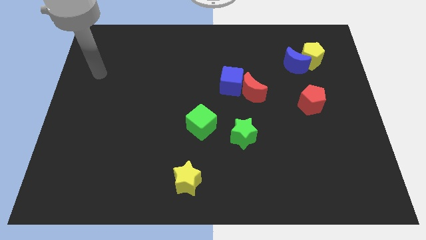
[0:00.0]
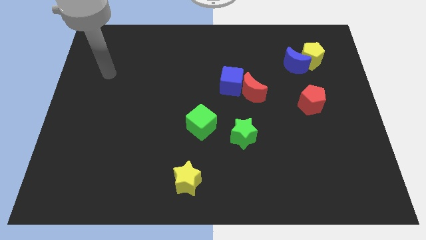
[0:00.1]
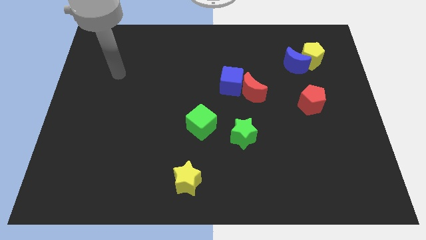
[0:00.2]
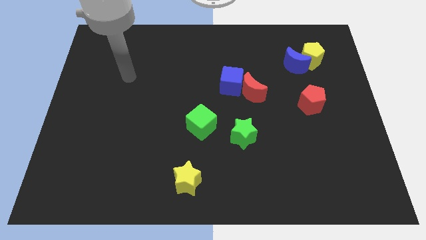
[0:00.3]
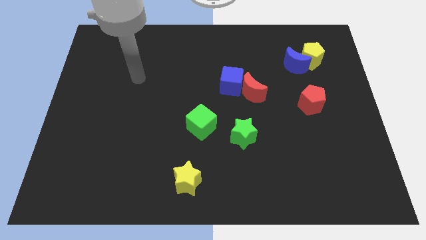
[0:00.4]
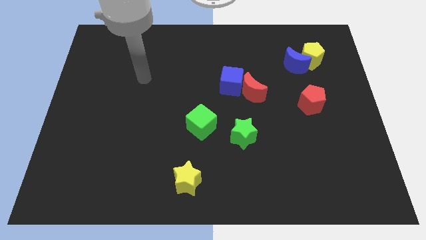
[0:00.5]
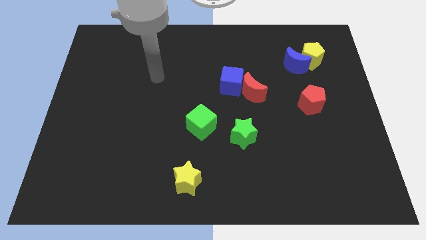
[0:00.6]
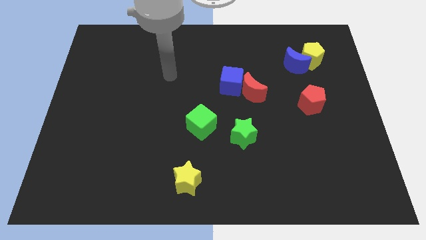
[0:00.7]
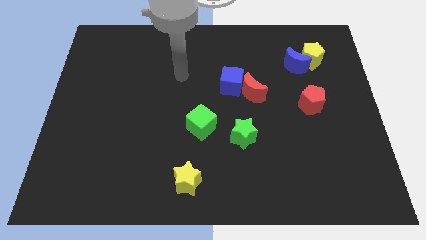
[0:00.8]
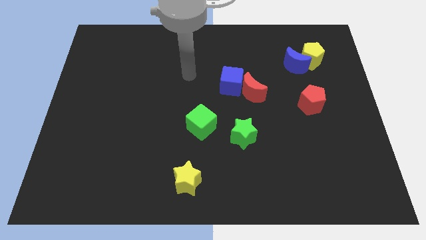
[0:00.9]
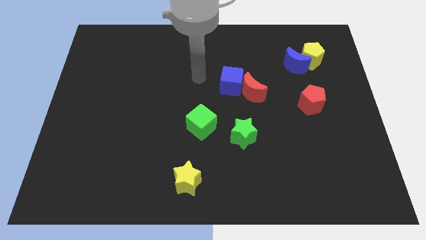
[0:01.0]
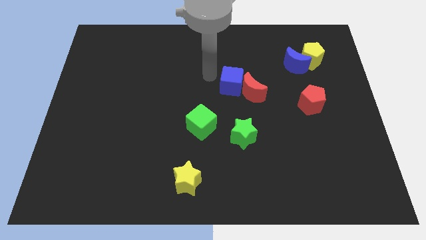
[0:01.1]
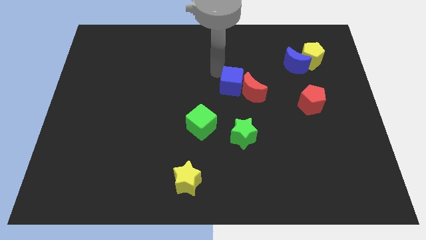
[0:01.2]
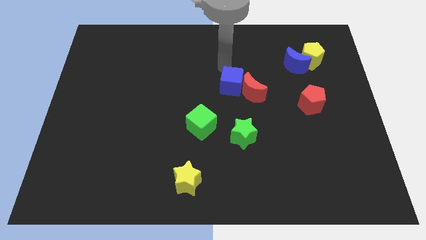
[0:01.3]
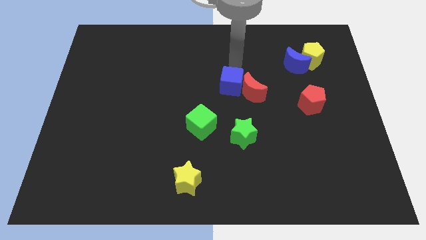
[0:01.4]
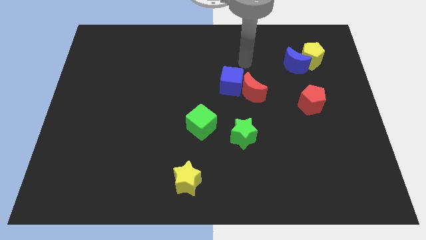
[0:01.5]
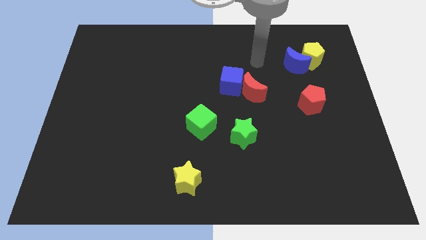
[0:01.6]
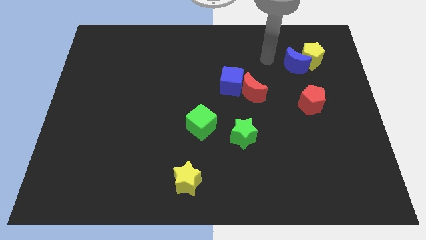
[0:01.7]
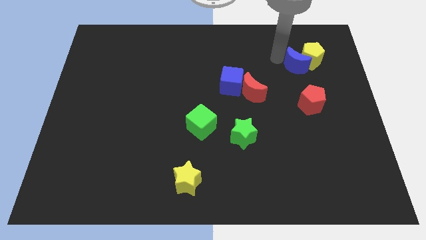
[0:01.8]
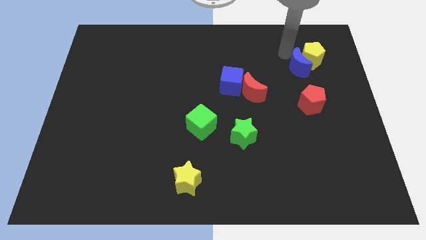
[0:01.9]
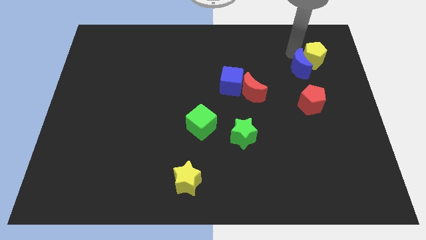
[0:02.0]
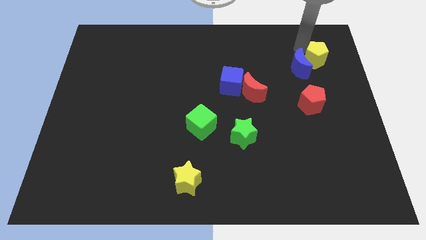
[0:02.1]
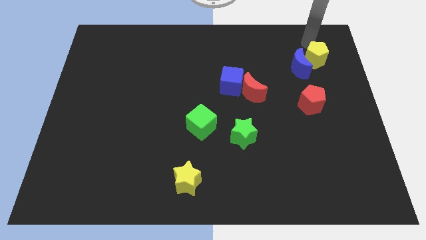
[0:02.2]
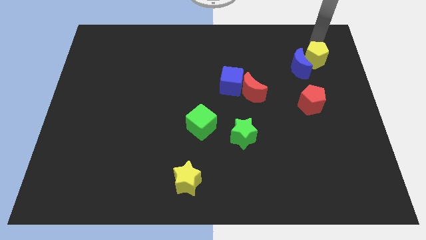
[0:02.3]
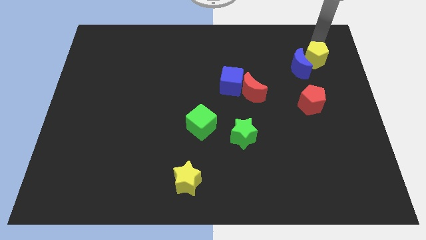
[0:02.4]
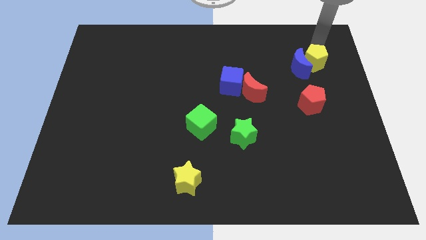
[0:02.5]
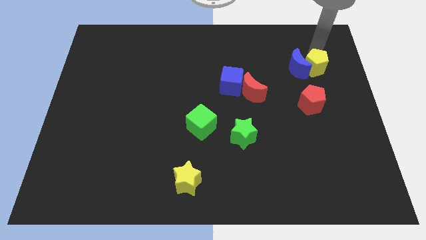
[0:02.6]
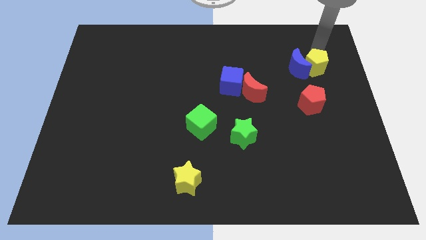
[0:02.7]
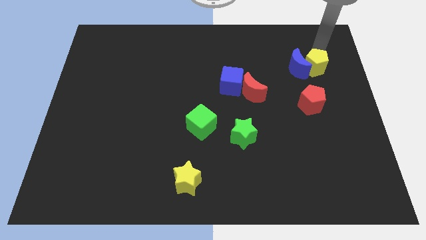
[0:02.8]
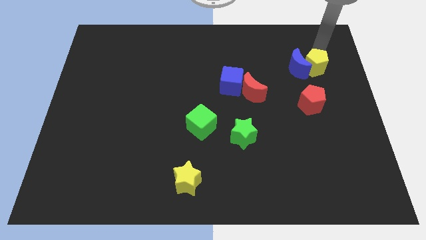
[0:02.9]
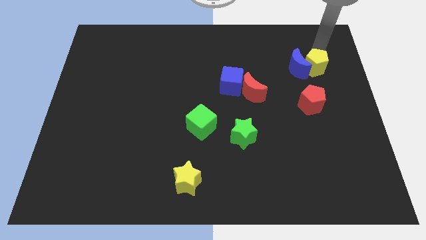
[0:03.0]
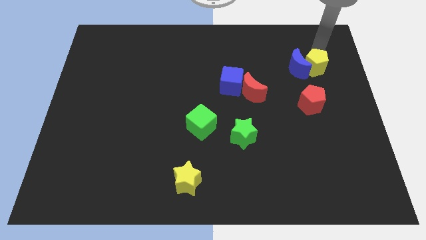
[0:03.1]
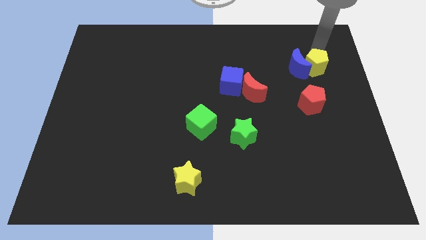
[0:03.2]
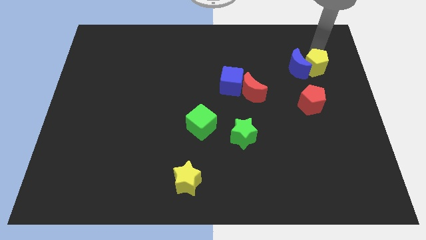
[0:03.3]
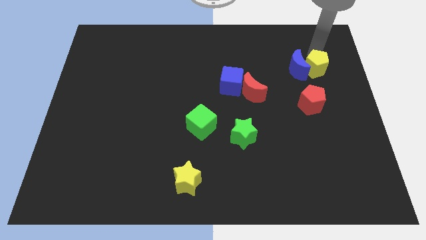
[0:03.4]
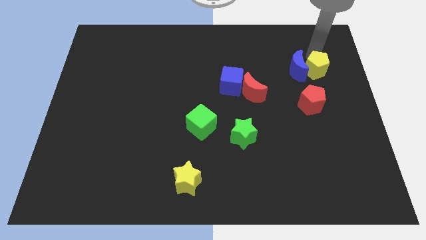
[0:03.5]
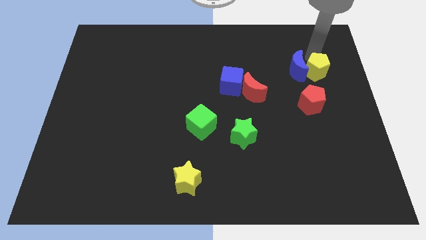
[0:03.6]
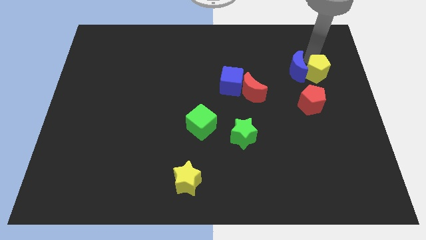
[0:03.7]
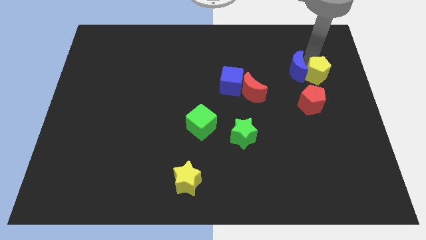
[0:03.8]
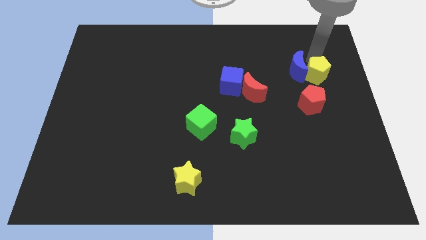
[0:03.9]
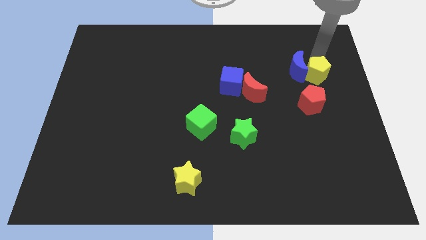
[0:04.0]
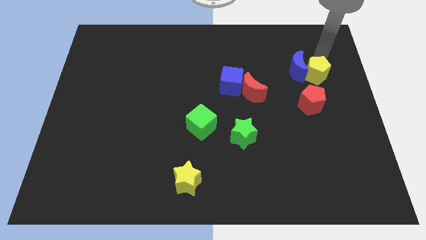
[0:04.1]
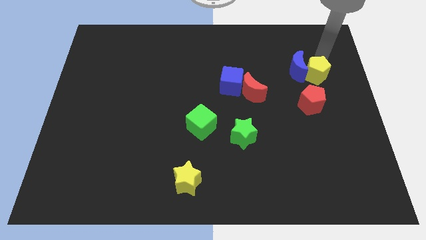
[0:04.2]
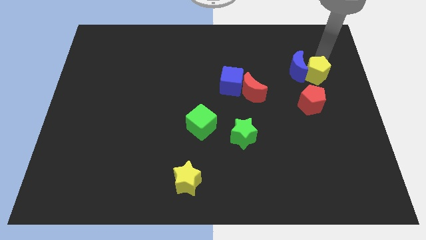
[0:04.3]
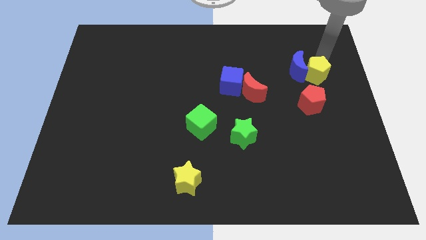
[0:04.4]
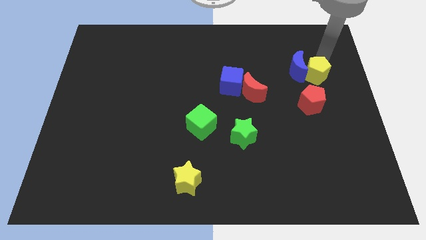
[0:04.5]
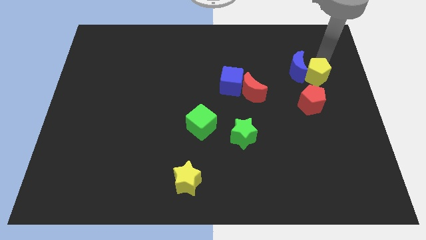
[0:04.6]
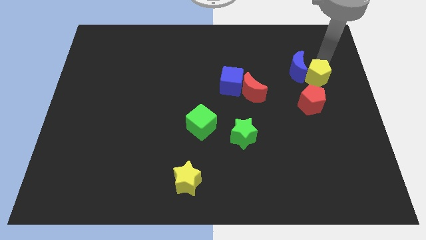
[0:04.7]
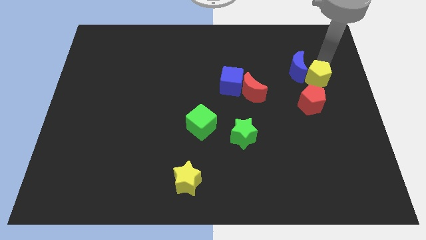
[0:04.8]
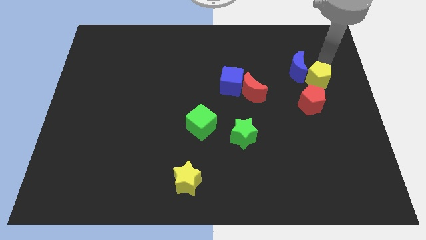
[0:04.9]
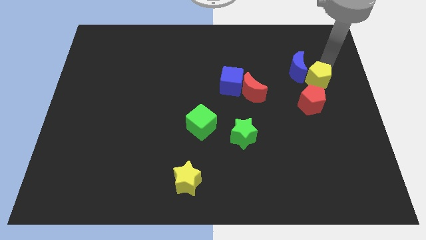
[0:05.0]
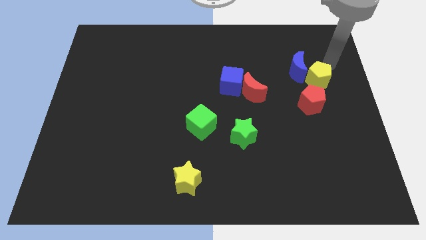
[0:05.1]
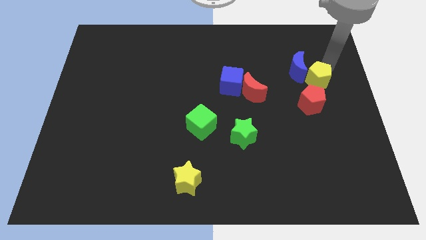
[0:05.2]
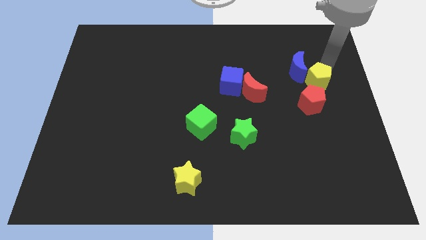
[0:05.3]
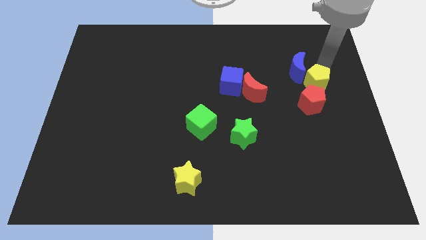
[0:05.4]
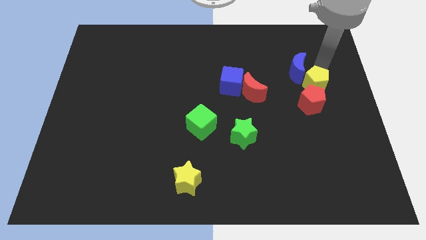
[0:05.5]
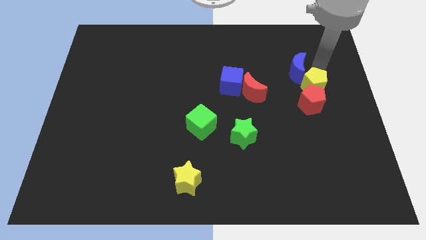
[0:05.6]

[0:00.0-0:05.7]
move the yellow pentagon to the red pentagon

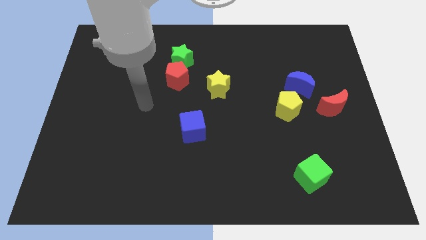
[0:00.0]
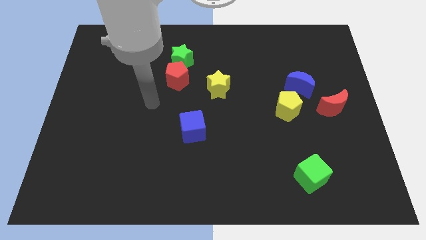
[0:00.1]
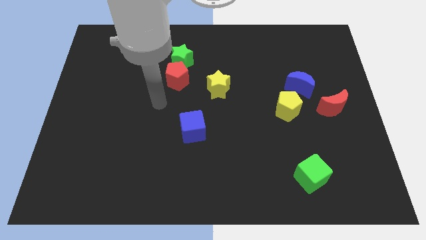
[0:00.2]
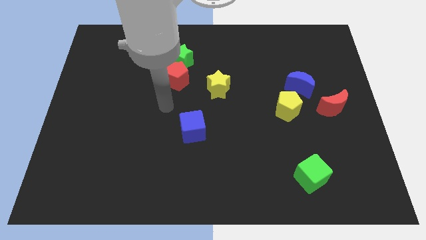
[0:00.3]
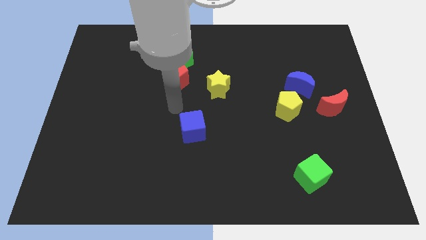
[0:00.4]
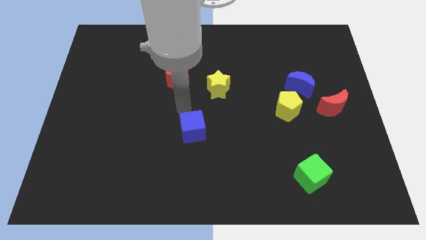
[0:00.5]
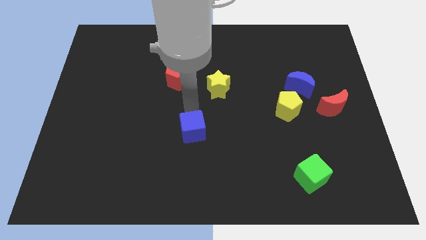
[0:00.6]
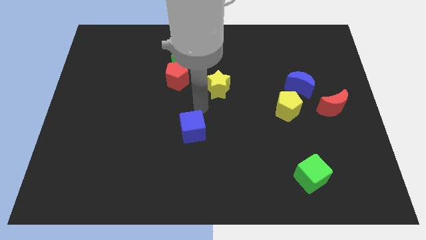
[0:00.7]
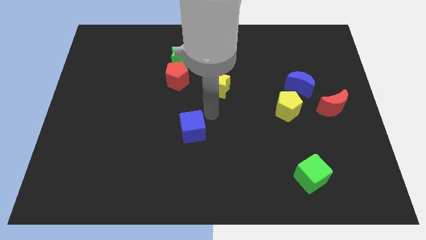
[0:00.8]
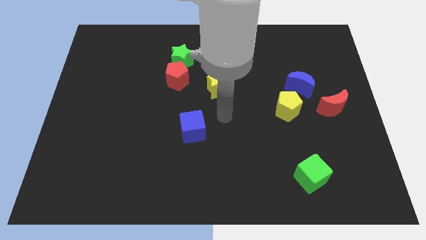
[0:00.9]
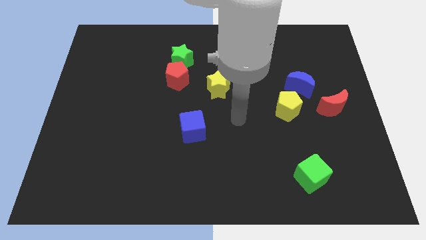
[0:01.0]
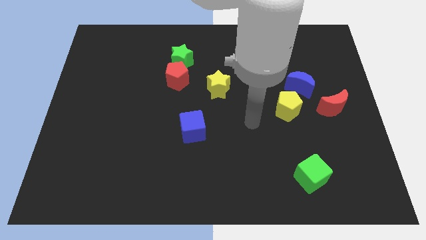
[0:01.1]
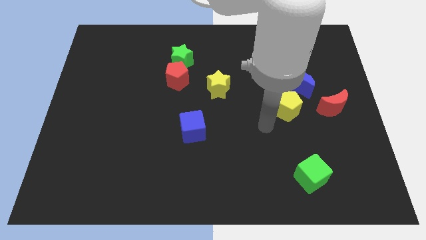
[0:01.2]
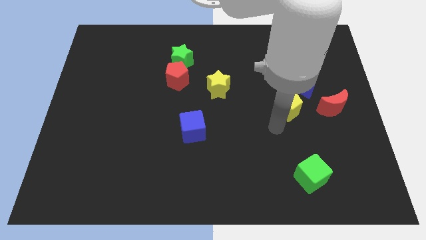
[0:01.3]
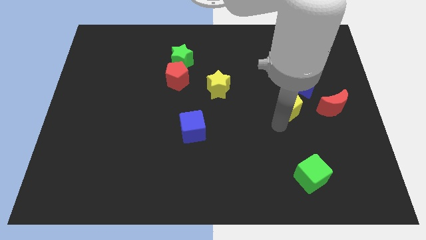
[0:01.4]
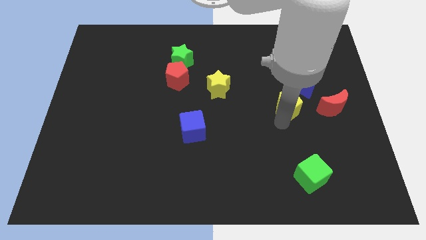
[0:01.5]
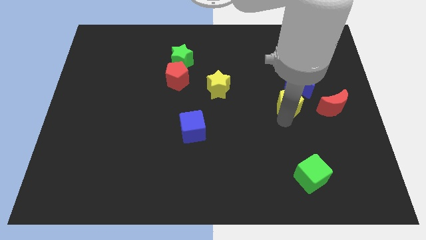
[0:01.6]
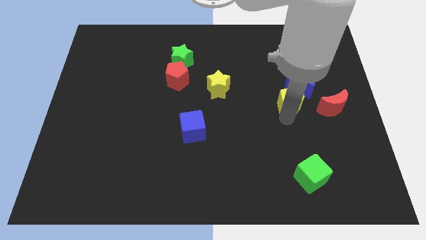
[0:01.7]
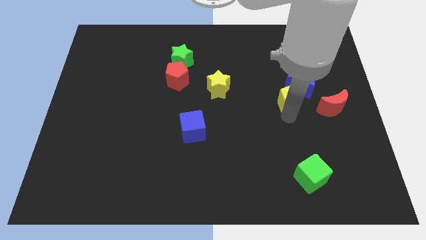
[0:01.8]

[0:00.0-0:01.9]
put the yellow pentagon to the blue moon

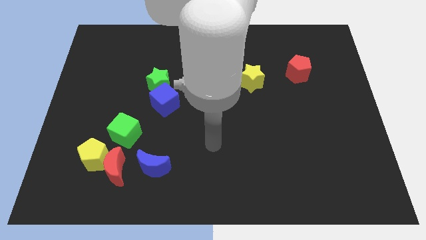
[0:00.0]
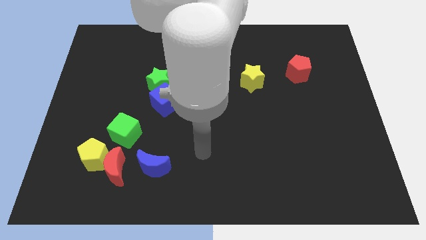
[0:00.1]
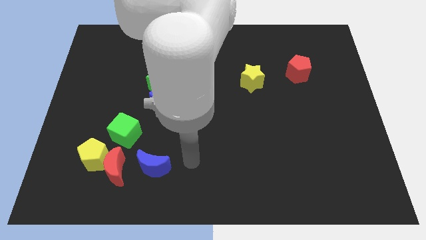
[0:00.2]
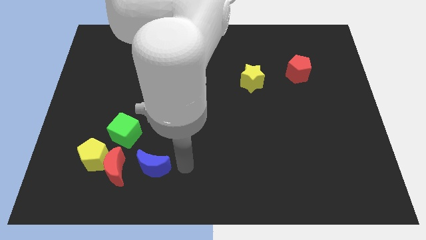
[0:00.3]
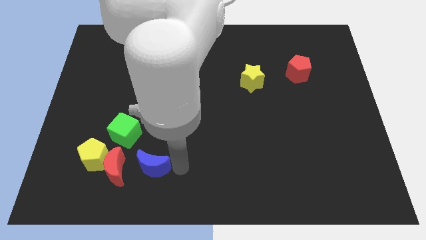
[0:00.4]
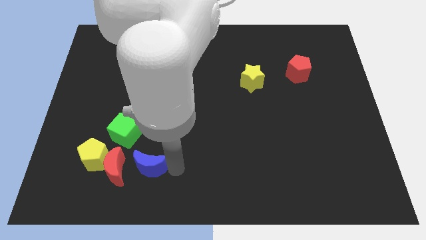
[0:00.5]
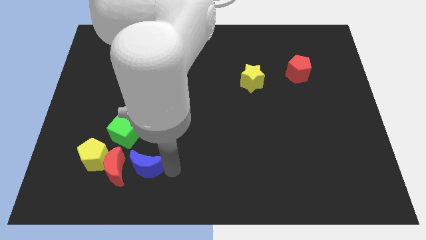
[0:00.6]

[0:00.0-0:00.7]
slide the blue moon towards the red moon
